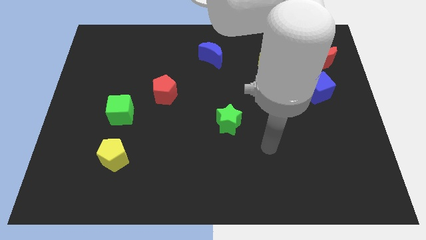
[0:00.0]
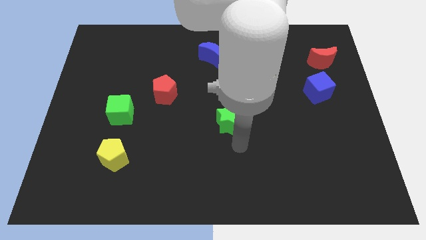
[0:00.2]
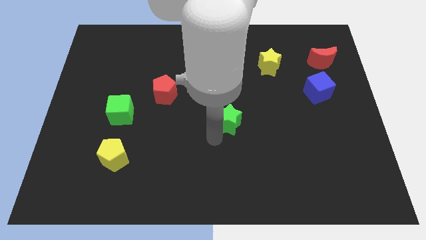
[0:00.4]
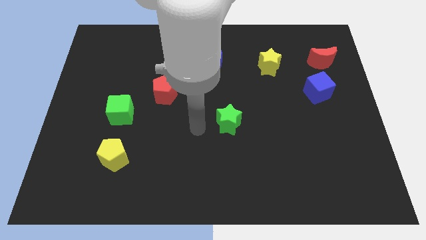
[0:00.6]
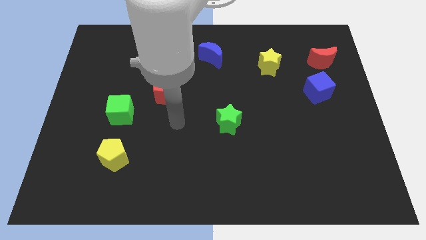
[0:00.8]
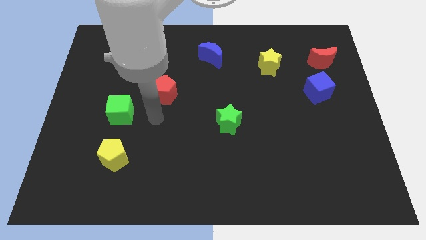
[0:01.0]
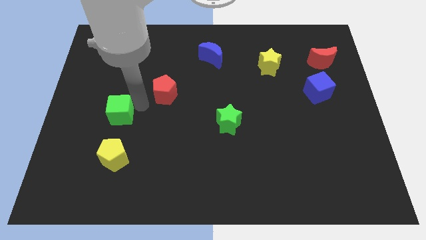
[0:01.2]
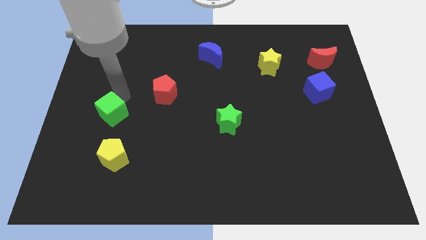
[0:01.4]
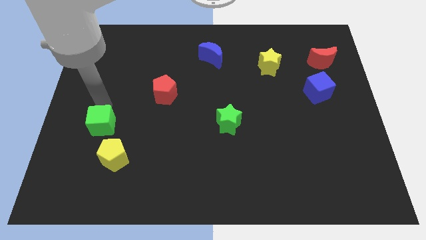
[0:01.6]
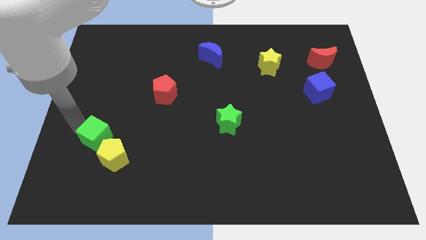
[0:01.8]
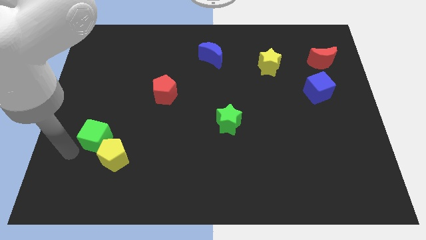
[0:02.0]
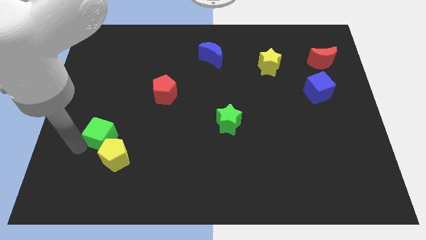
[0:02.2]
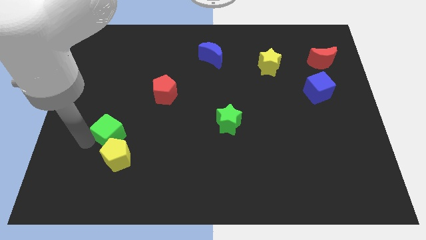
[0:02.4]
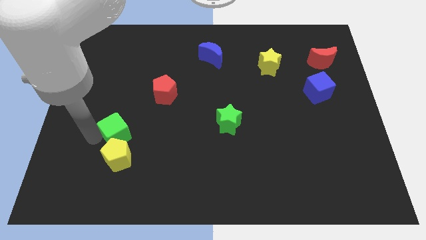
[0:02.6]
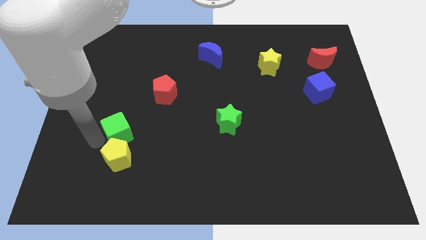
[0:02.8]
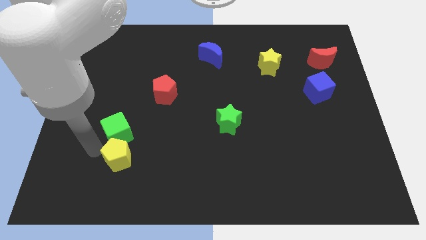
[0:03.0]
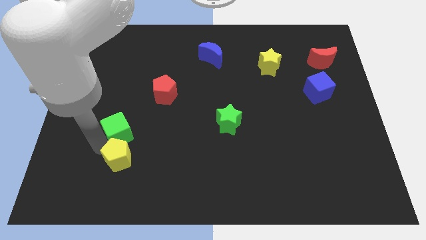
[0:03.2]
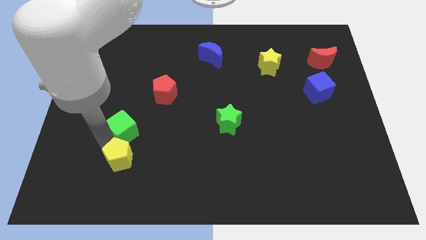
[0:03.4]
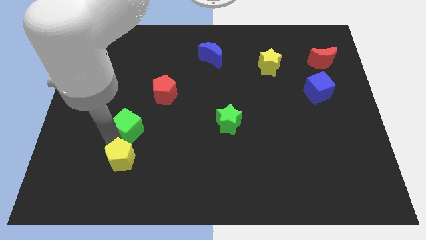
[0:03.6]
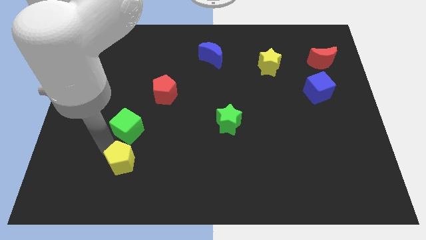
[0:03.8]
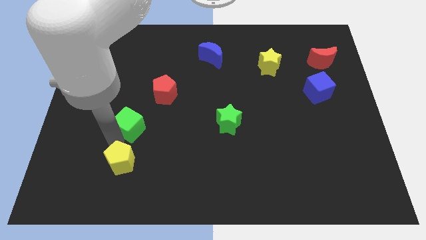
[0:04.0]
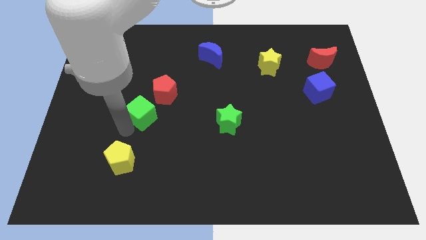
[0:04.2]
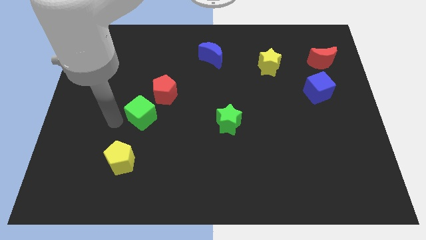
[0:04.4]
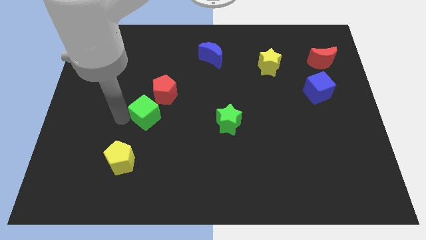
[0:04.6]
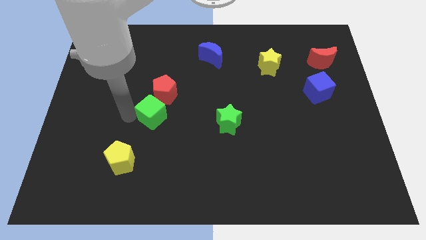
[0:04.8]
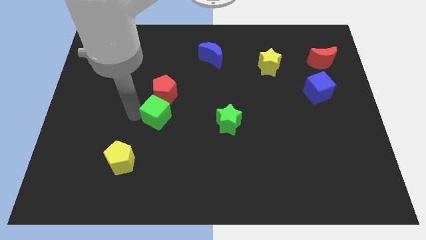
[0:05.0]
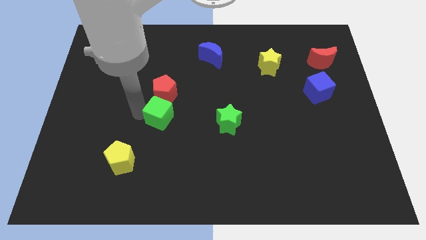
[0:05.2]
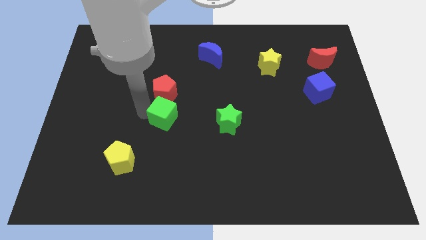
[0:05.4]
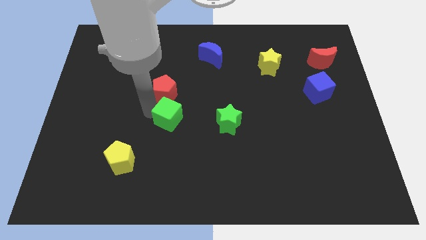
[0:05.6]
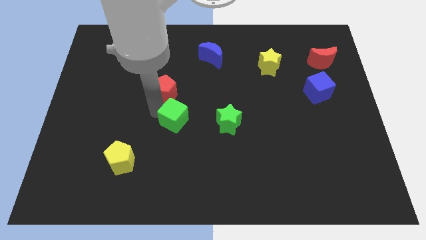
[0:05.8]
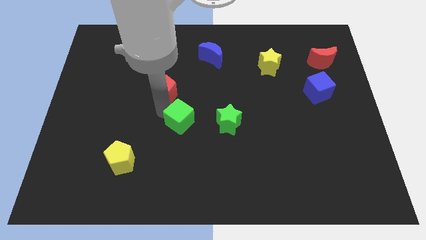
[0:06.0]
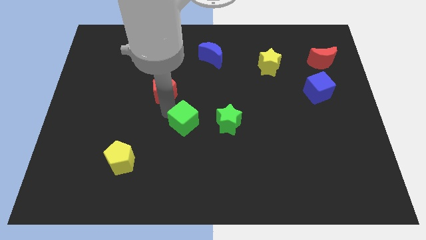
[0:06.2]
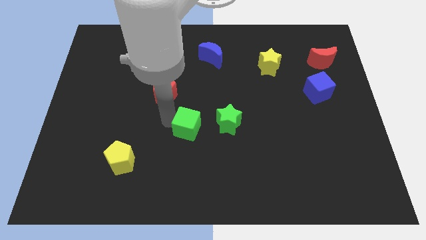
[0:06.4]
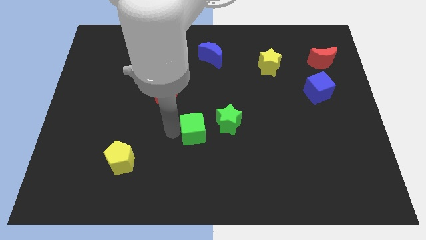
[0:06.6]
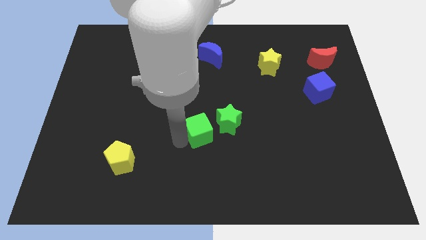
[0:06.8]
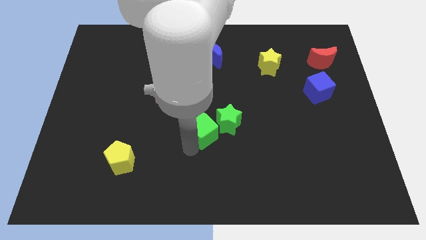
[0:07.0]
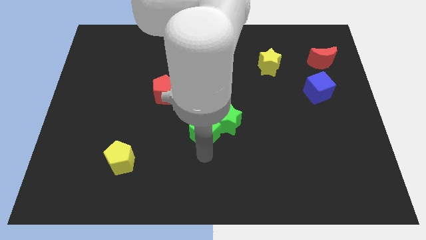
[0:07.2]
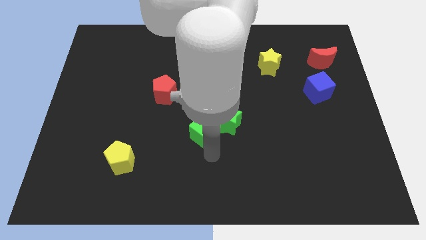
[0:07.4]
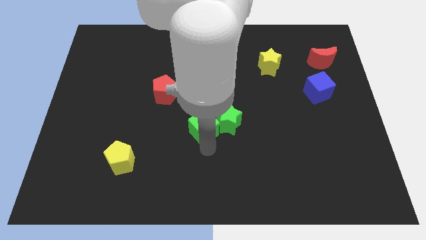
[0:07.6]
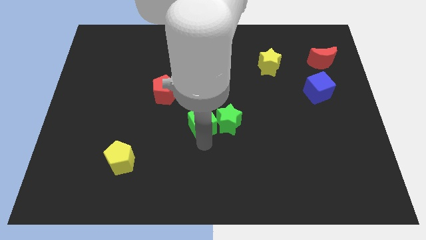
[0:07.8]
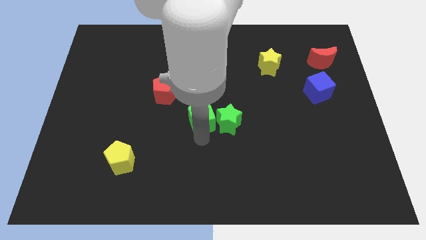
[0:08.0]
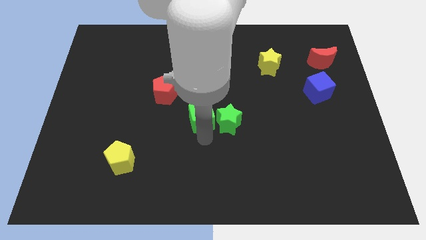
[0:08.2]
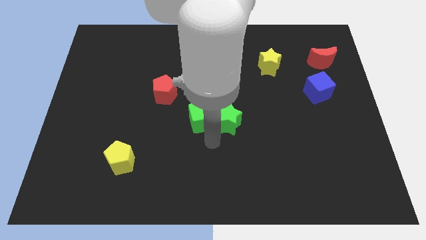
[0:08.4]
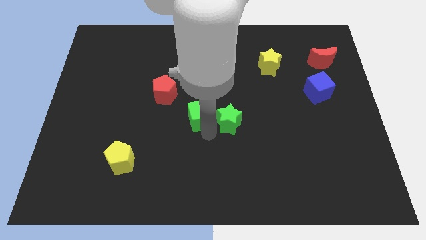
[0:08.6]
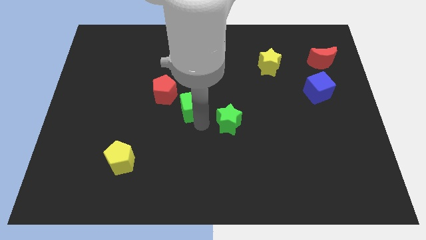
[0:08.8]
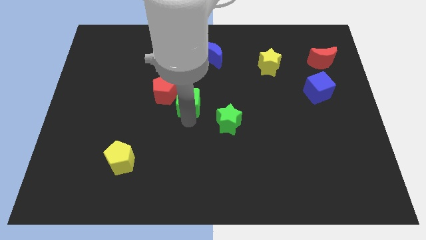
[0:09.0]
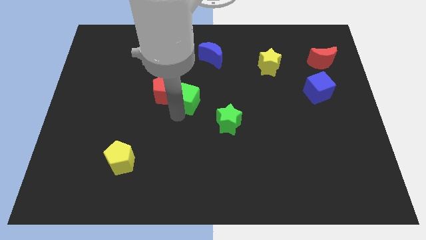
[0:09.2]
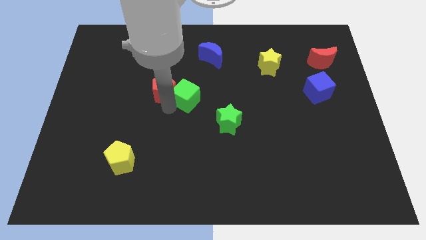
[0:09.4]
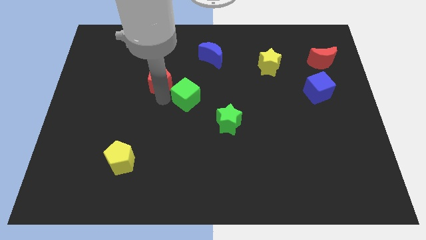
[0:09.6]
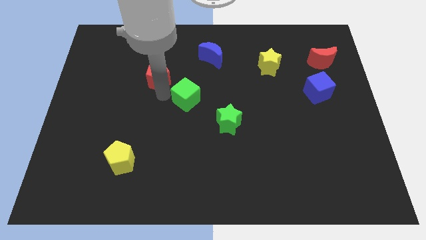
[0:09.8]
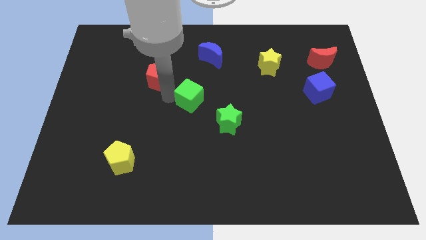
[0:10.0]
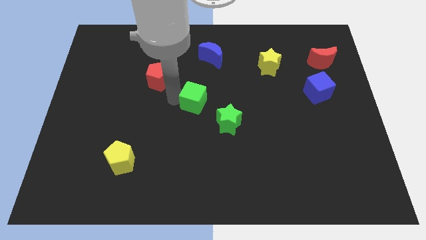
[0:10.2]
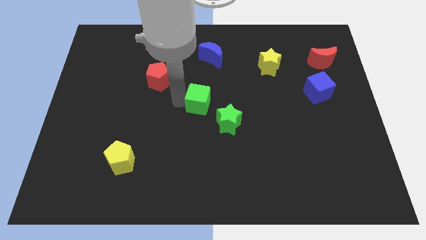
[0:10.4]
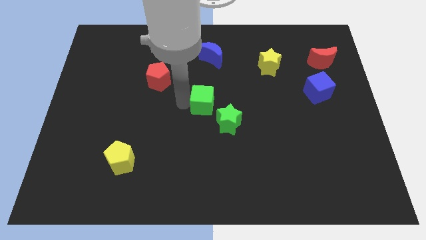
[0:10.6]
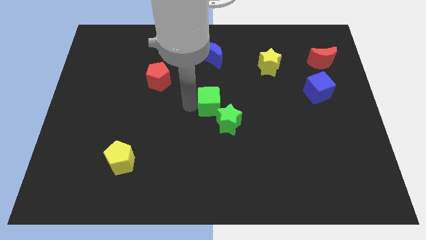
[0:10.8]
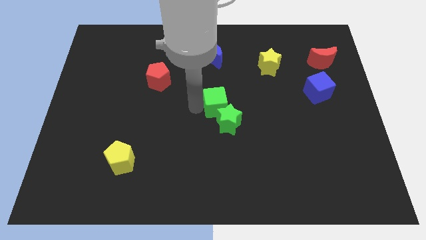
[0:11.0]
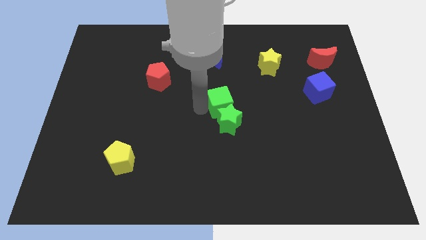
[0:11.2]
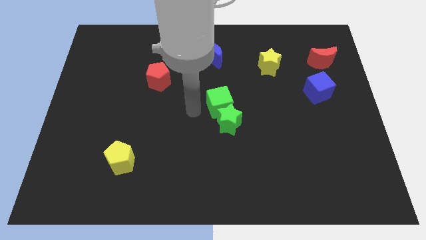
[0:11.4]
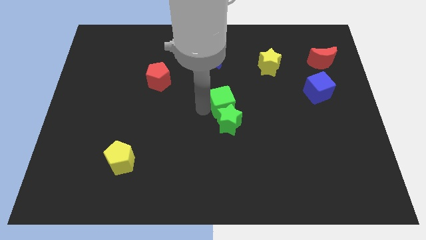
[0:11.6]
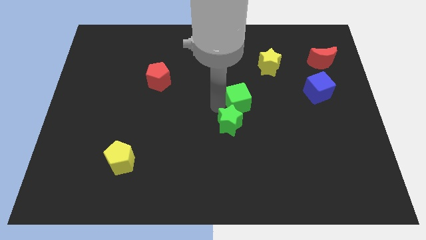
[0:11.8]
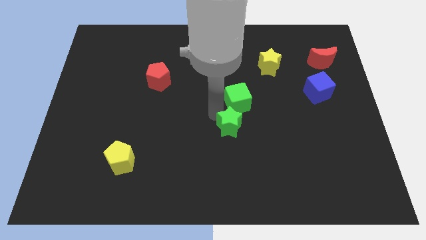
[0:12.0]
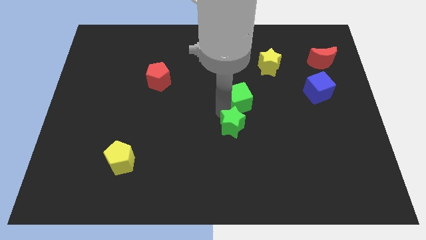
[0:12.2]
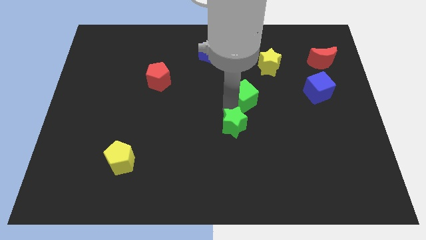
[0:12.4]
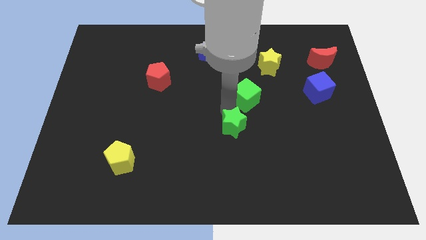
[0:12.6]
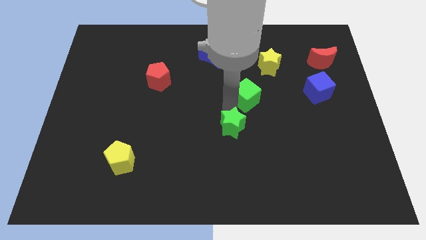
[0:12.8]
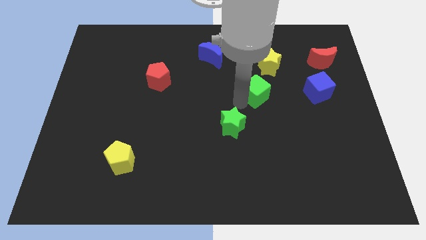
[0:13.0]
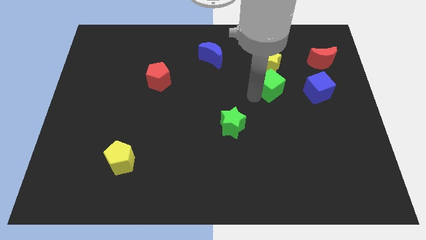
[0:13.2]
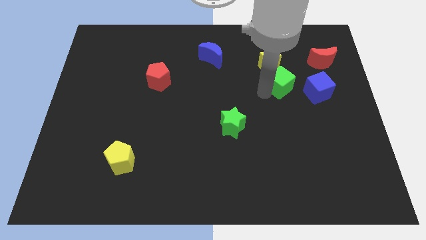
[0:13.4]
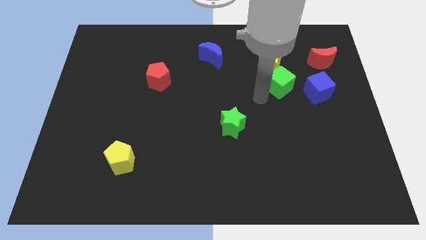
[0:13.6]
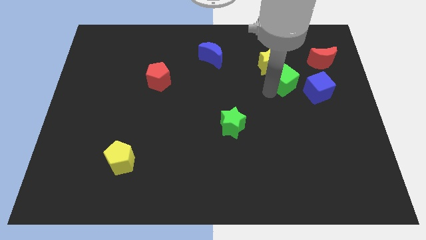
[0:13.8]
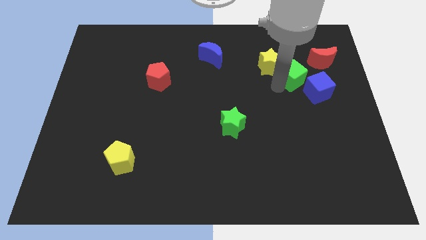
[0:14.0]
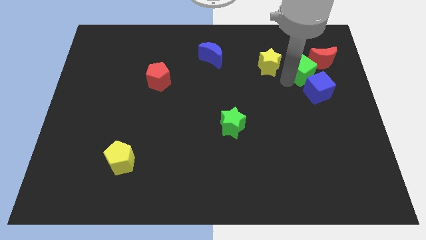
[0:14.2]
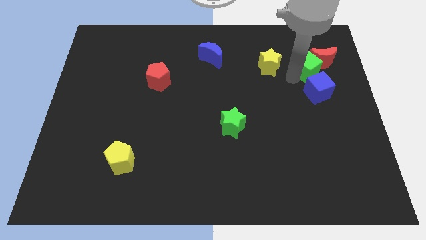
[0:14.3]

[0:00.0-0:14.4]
put the green cube next to the red moon
